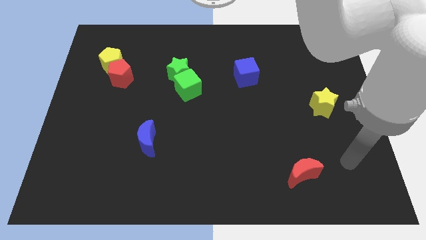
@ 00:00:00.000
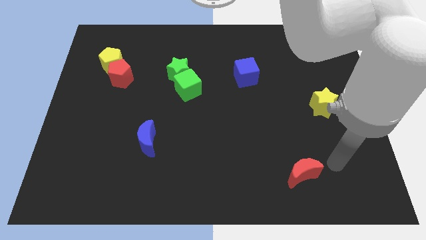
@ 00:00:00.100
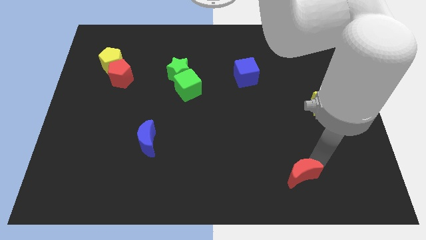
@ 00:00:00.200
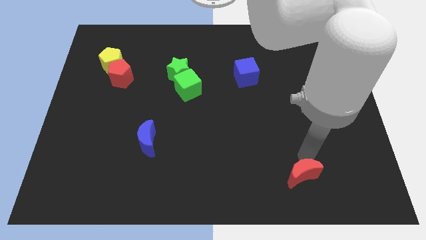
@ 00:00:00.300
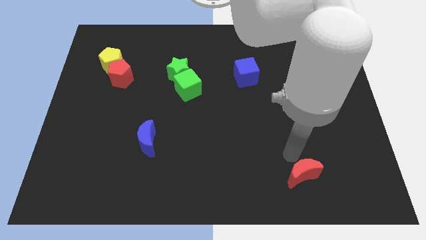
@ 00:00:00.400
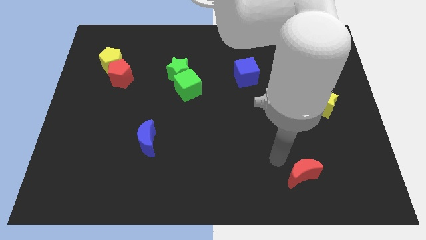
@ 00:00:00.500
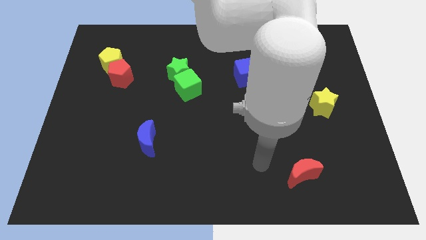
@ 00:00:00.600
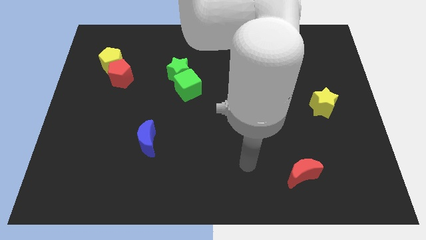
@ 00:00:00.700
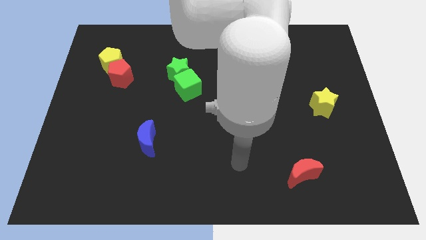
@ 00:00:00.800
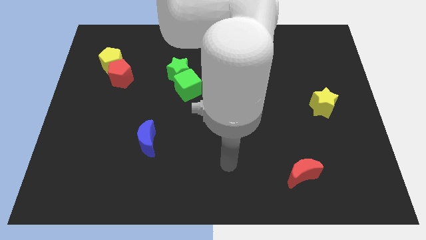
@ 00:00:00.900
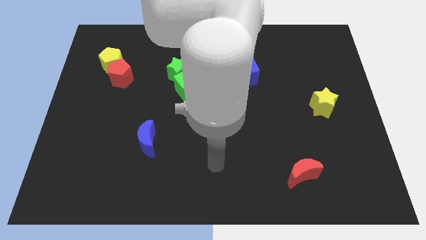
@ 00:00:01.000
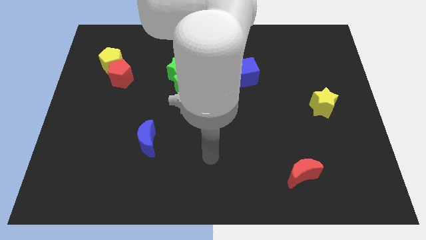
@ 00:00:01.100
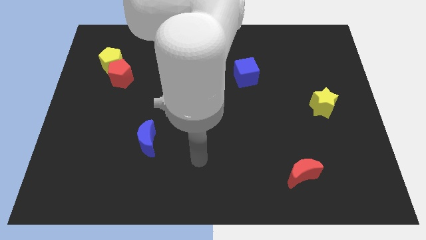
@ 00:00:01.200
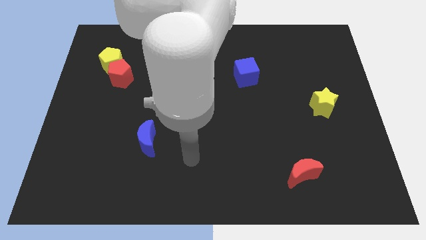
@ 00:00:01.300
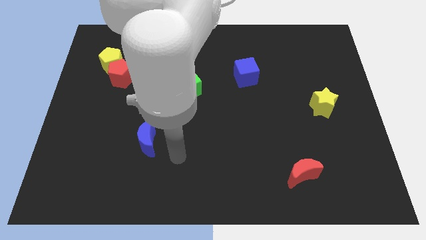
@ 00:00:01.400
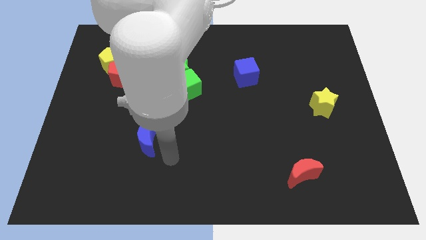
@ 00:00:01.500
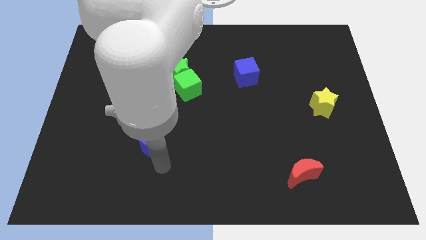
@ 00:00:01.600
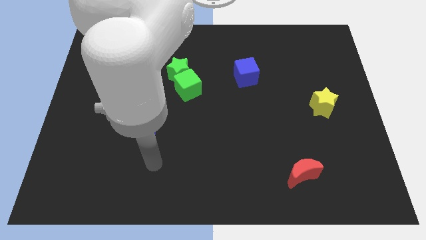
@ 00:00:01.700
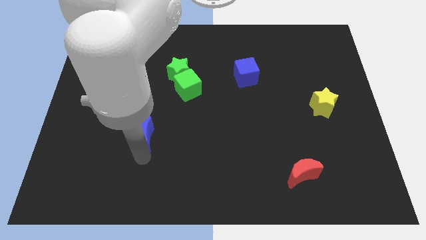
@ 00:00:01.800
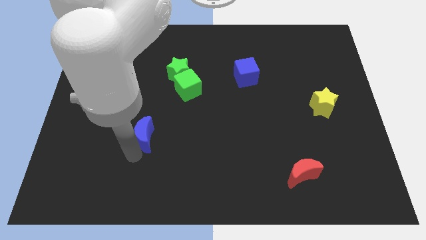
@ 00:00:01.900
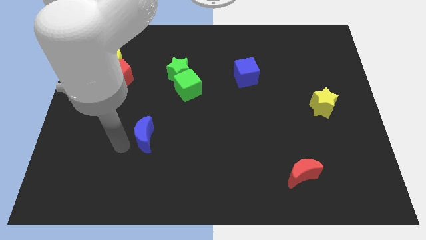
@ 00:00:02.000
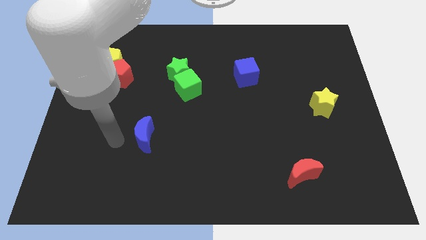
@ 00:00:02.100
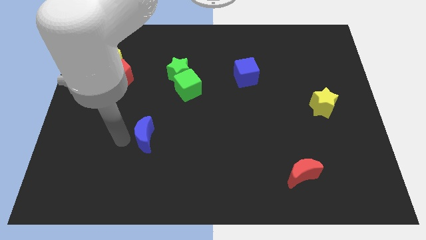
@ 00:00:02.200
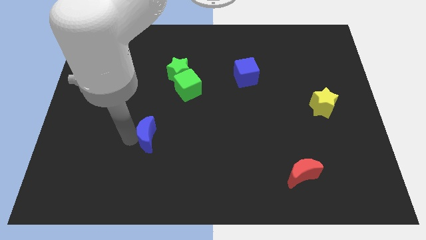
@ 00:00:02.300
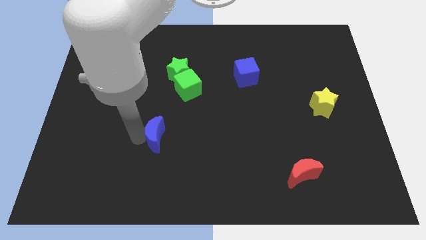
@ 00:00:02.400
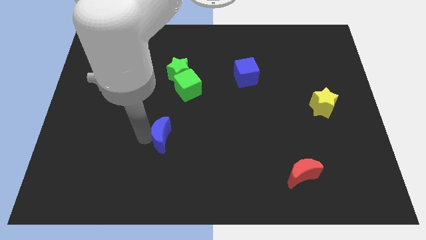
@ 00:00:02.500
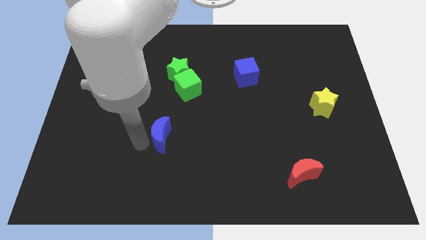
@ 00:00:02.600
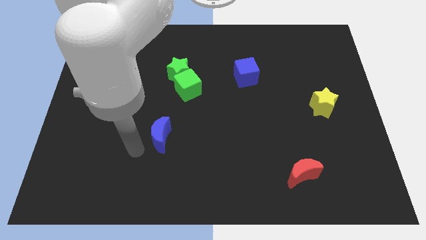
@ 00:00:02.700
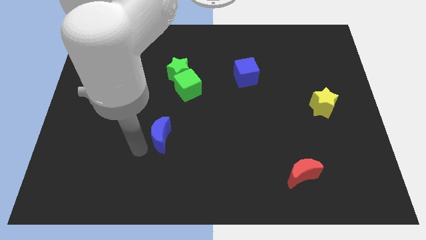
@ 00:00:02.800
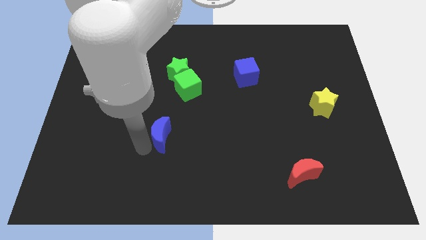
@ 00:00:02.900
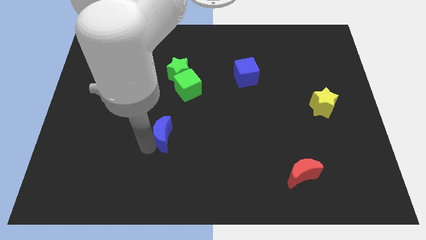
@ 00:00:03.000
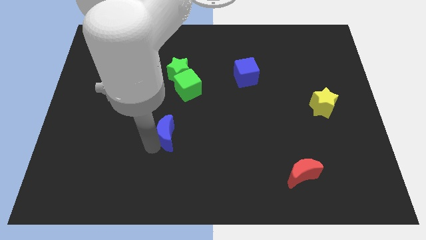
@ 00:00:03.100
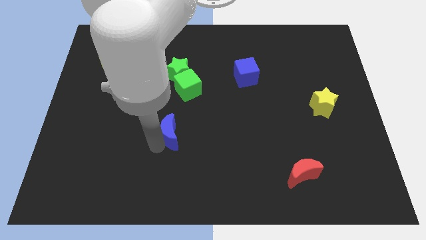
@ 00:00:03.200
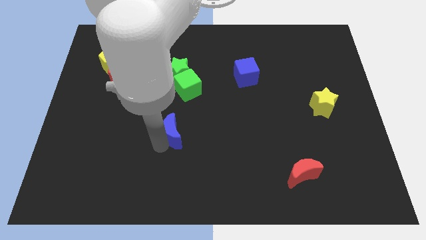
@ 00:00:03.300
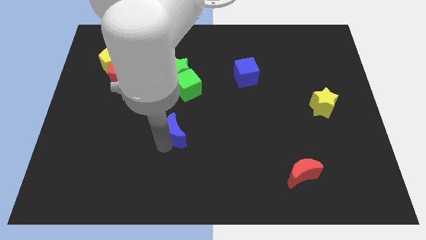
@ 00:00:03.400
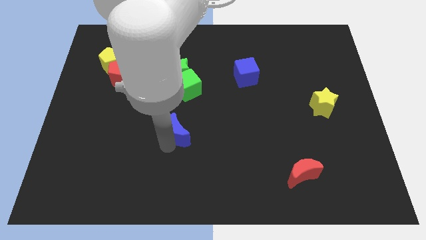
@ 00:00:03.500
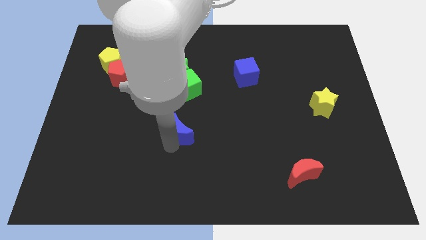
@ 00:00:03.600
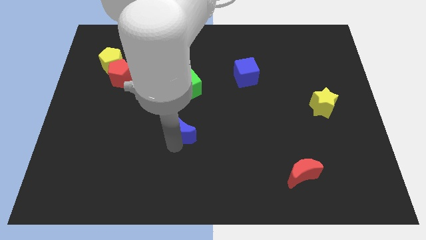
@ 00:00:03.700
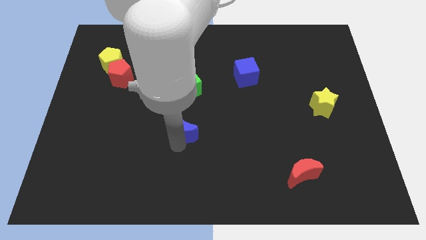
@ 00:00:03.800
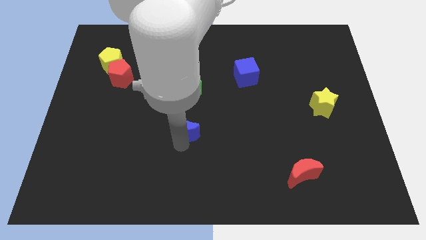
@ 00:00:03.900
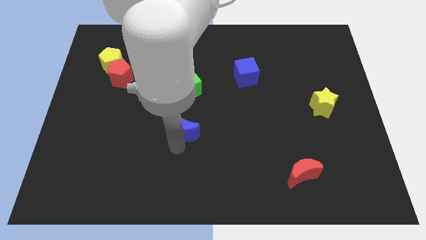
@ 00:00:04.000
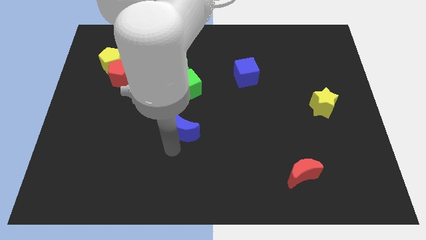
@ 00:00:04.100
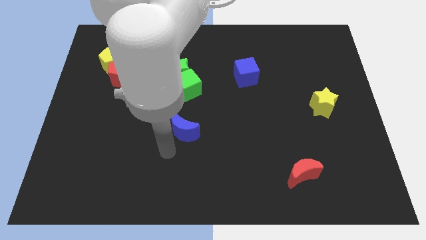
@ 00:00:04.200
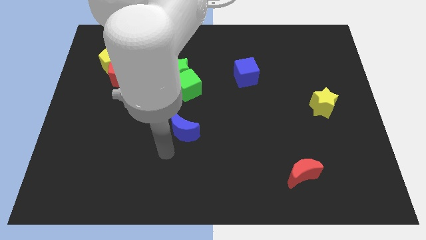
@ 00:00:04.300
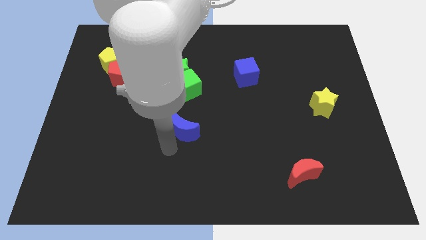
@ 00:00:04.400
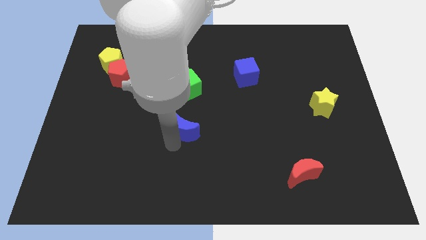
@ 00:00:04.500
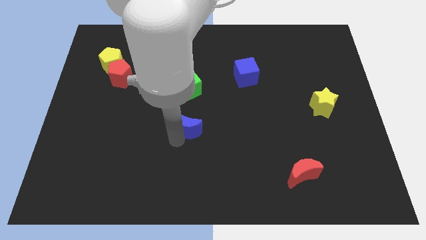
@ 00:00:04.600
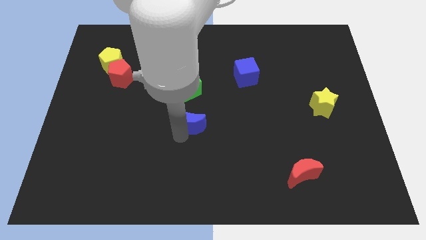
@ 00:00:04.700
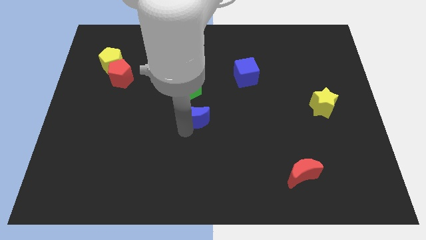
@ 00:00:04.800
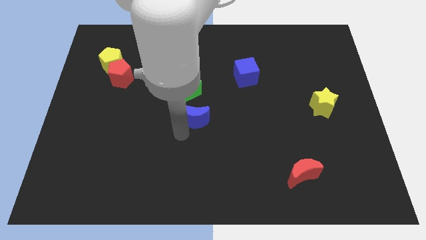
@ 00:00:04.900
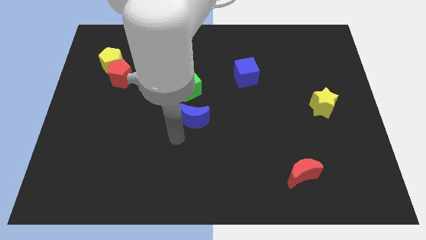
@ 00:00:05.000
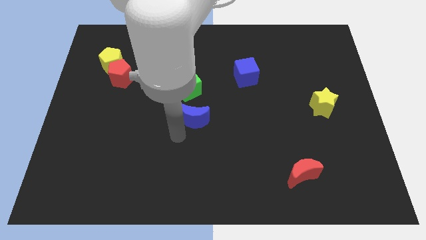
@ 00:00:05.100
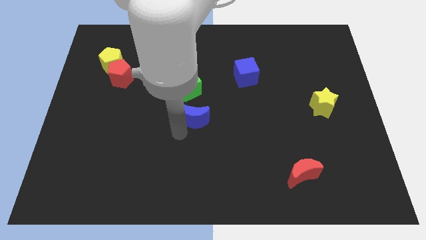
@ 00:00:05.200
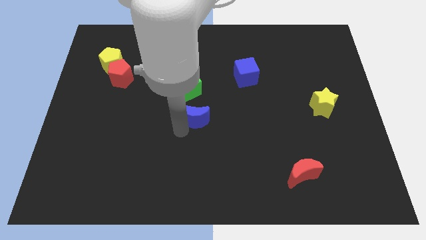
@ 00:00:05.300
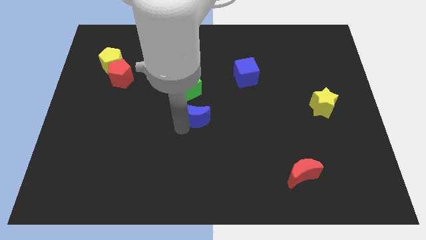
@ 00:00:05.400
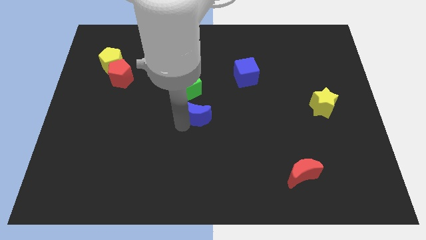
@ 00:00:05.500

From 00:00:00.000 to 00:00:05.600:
push the blue moon to the bottom right side of the green cube

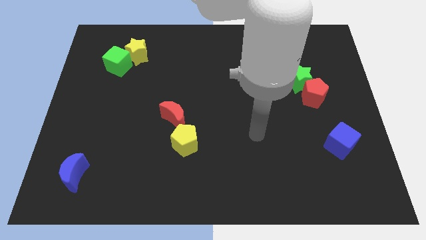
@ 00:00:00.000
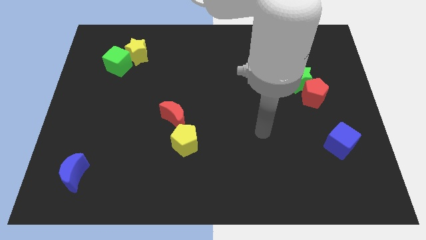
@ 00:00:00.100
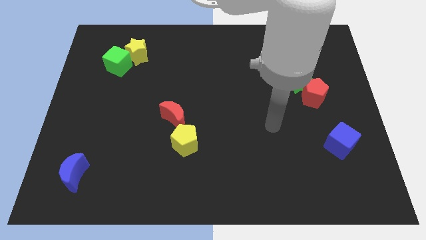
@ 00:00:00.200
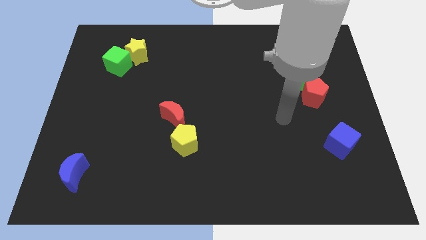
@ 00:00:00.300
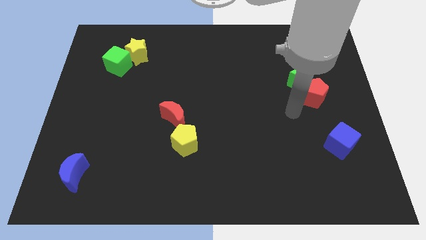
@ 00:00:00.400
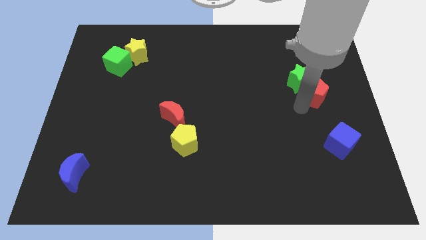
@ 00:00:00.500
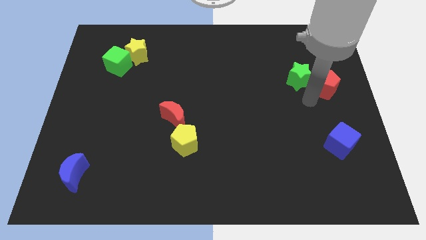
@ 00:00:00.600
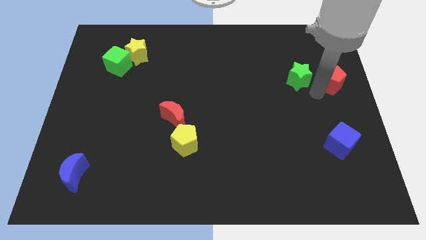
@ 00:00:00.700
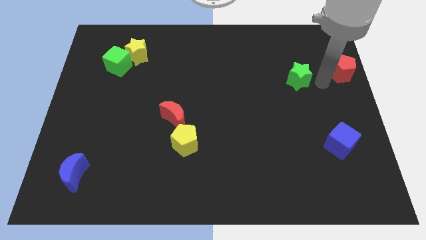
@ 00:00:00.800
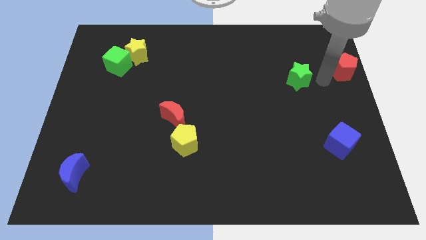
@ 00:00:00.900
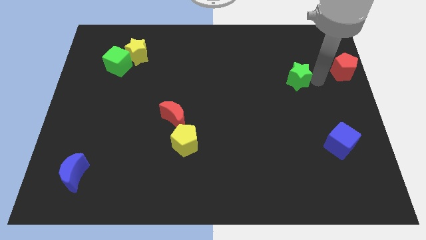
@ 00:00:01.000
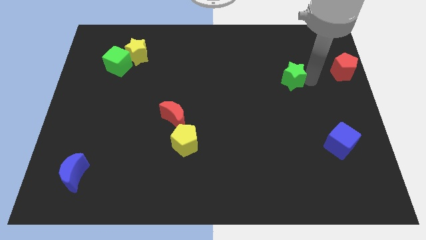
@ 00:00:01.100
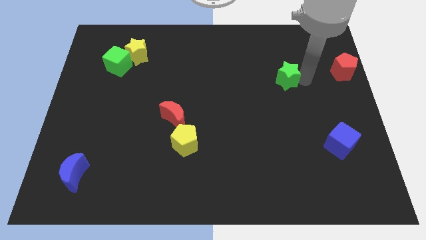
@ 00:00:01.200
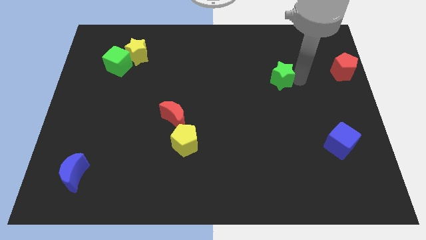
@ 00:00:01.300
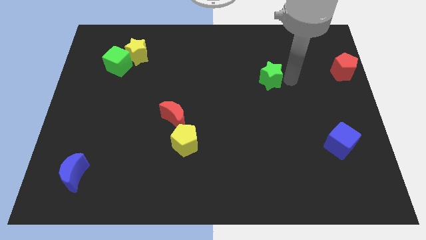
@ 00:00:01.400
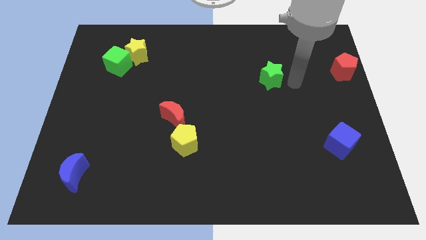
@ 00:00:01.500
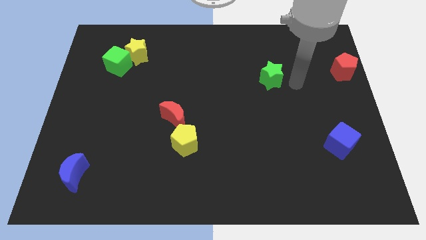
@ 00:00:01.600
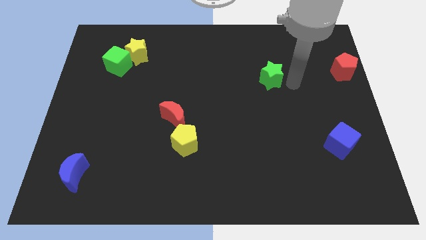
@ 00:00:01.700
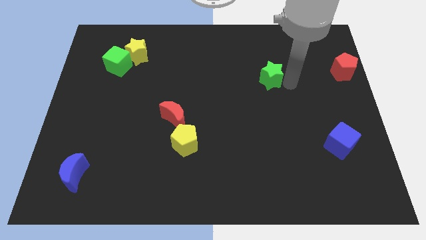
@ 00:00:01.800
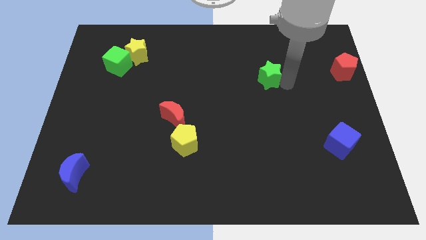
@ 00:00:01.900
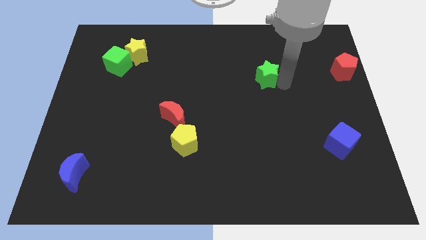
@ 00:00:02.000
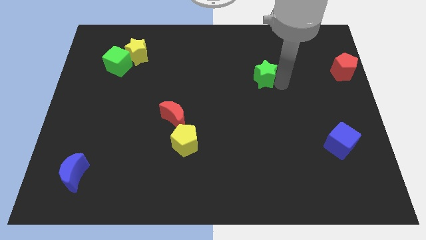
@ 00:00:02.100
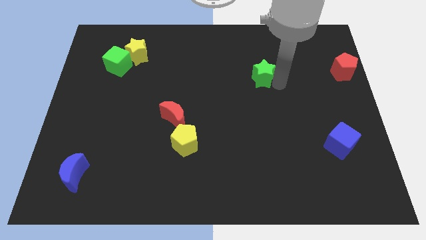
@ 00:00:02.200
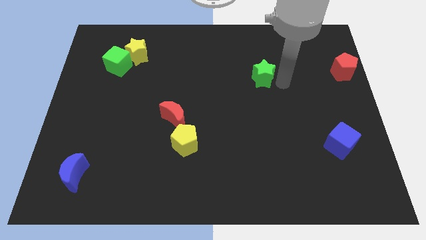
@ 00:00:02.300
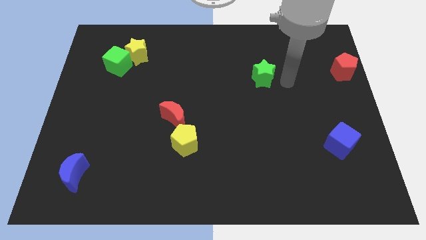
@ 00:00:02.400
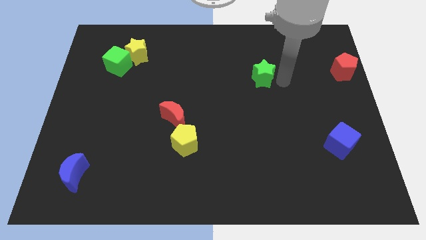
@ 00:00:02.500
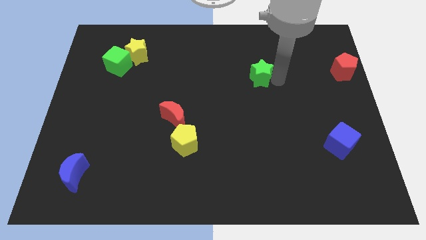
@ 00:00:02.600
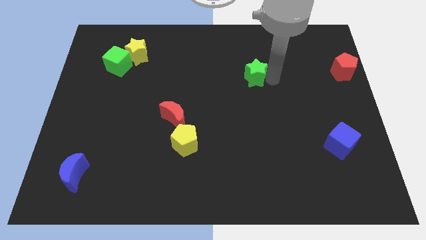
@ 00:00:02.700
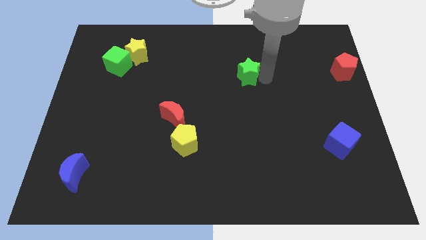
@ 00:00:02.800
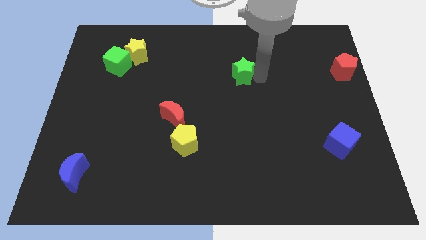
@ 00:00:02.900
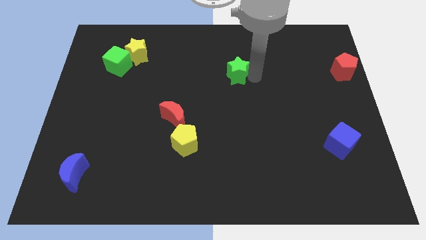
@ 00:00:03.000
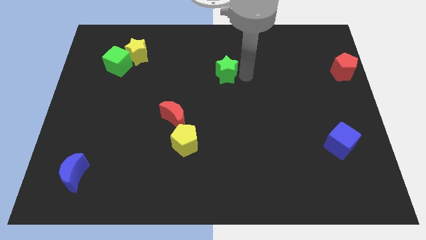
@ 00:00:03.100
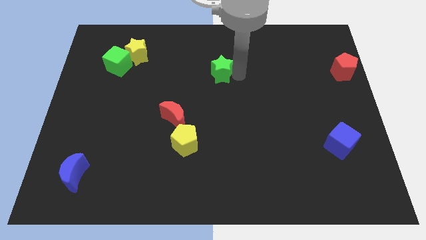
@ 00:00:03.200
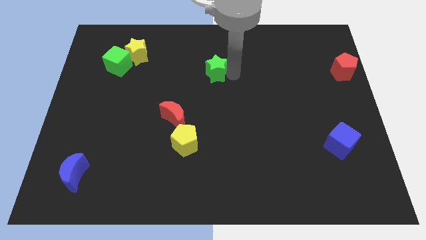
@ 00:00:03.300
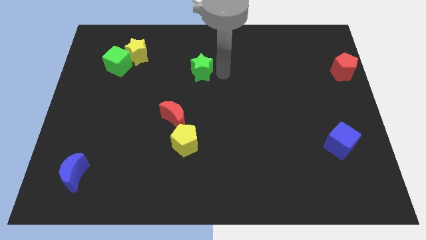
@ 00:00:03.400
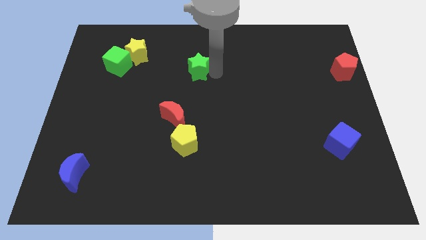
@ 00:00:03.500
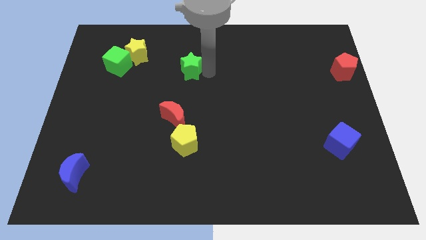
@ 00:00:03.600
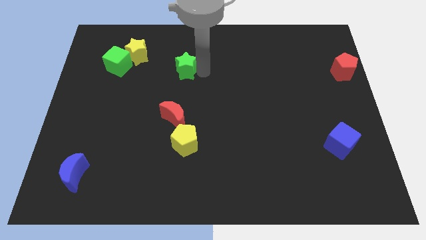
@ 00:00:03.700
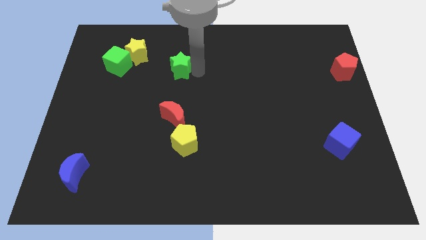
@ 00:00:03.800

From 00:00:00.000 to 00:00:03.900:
slide the green star right of the green cube
